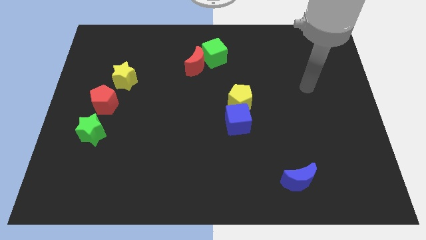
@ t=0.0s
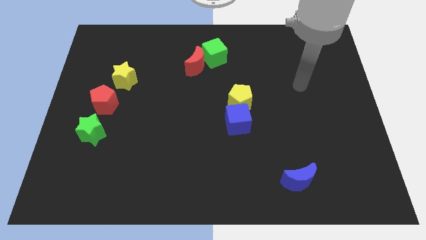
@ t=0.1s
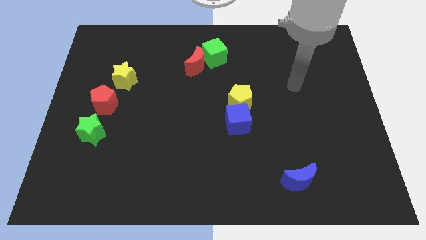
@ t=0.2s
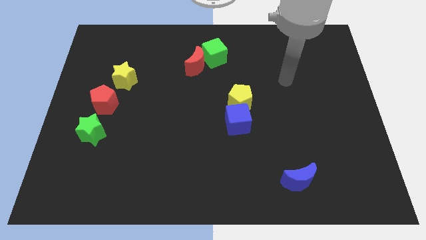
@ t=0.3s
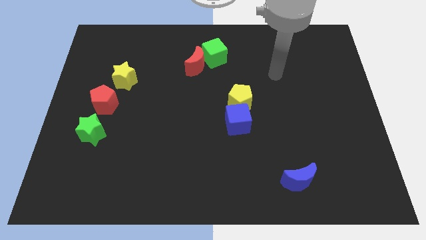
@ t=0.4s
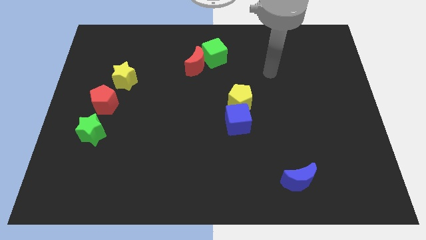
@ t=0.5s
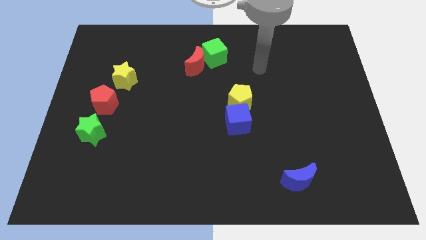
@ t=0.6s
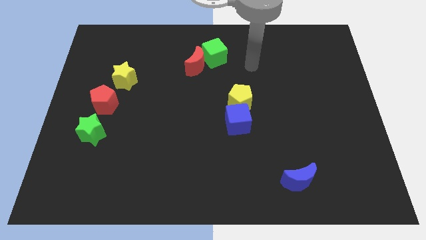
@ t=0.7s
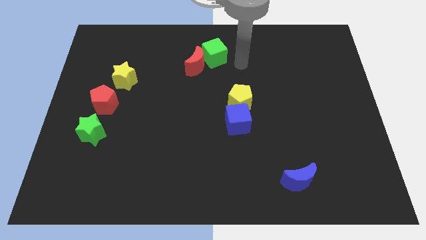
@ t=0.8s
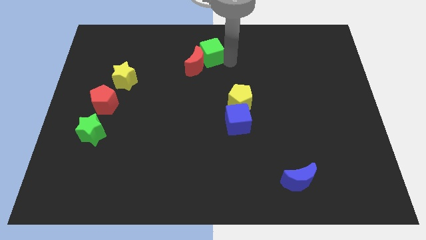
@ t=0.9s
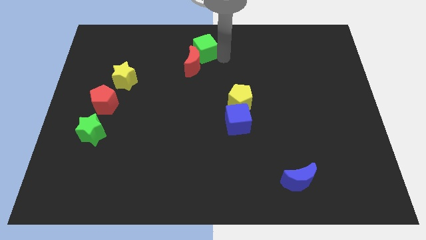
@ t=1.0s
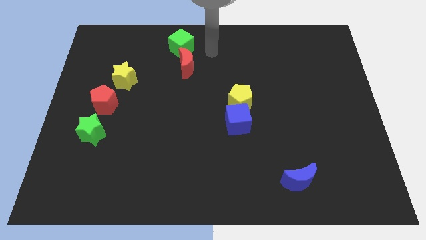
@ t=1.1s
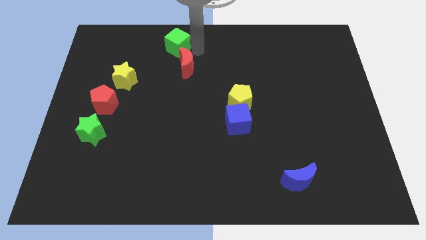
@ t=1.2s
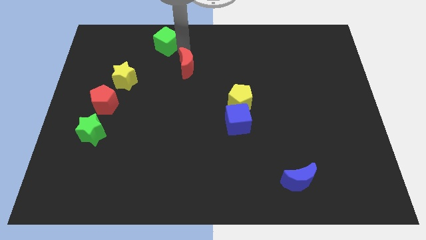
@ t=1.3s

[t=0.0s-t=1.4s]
move the red moon away from the green cube

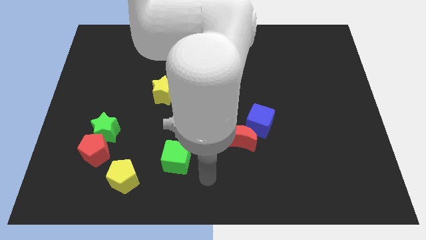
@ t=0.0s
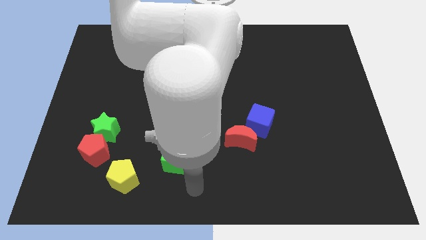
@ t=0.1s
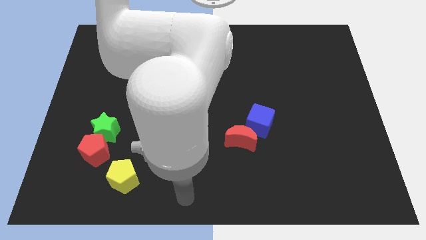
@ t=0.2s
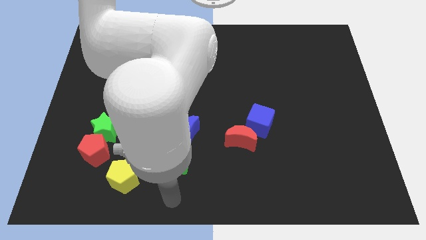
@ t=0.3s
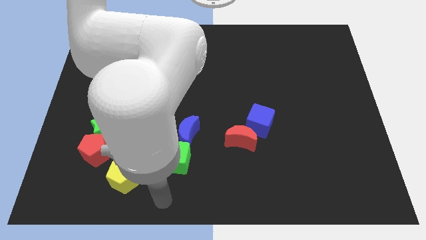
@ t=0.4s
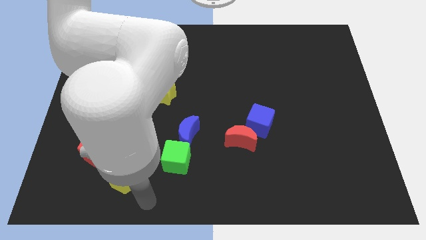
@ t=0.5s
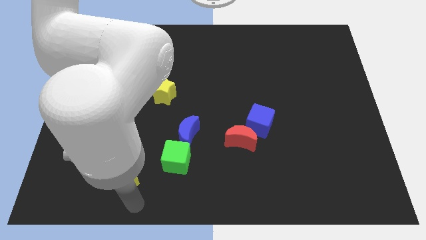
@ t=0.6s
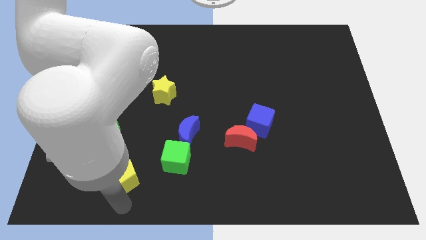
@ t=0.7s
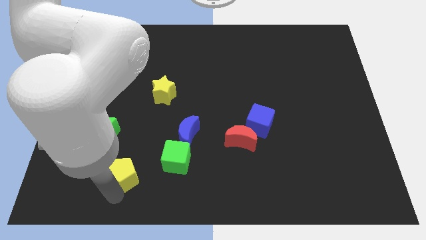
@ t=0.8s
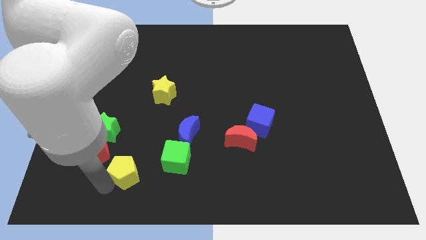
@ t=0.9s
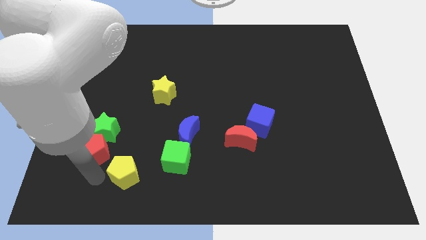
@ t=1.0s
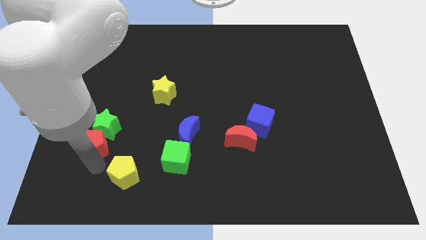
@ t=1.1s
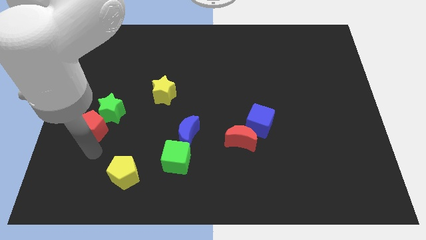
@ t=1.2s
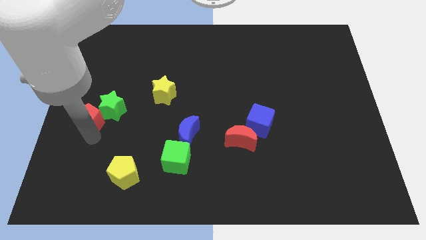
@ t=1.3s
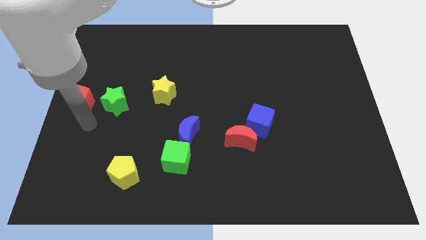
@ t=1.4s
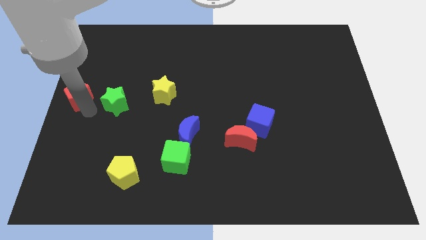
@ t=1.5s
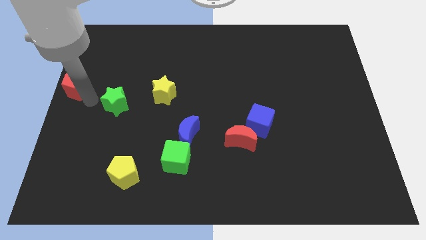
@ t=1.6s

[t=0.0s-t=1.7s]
separate the green star from the red pentagon

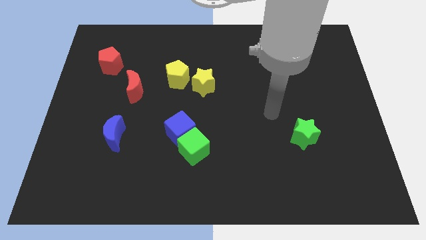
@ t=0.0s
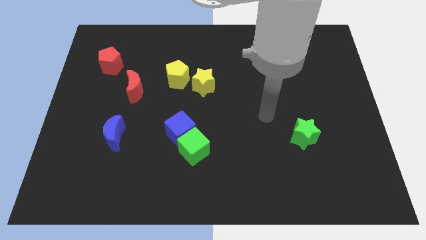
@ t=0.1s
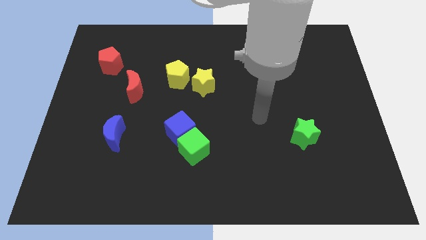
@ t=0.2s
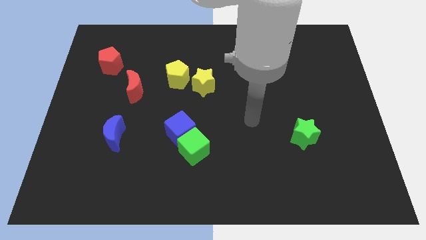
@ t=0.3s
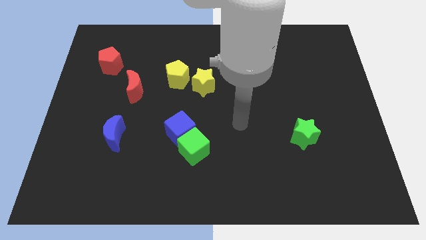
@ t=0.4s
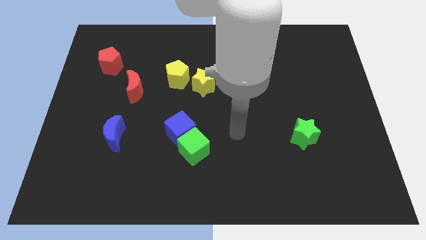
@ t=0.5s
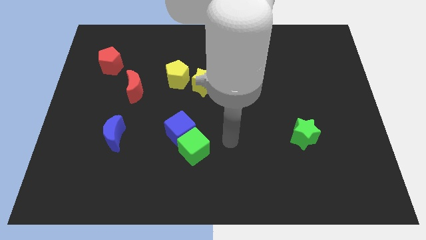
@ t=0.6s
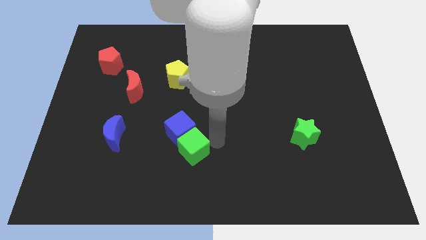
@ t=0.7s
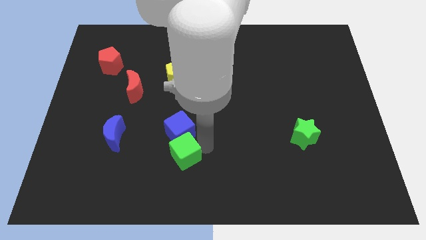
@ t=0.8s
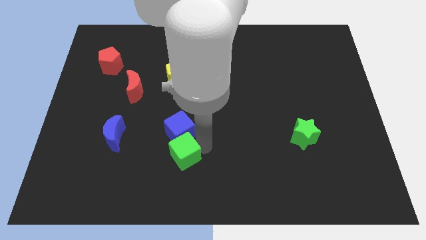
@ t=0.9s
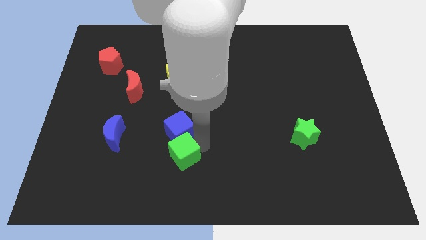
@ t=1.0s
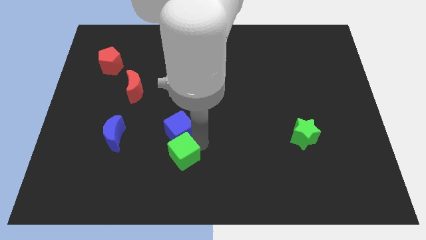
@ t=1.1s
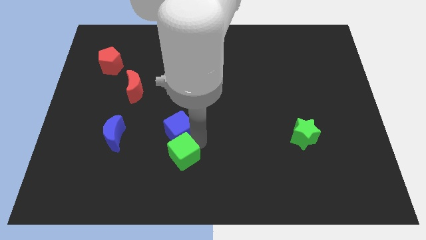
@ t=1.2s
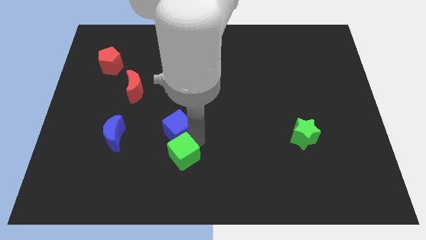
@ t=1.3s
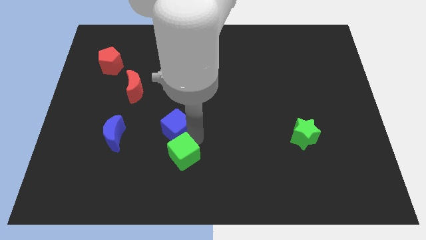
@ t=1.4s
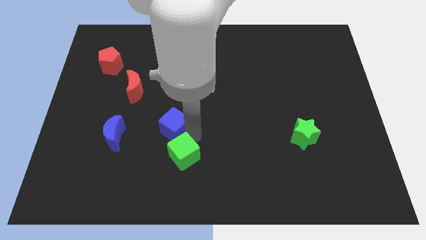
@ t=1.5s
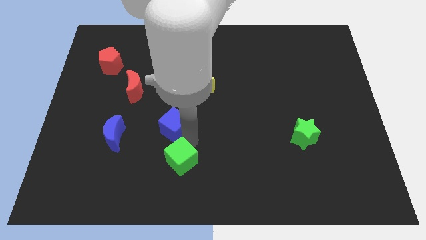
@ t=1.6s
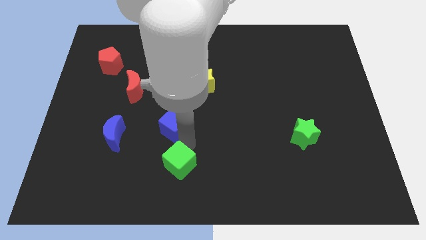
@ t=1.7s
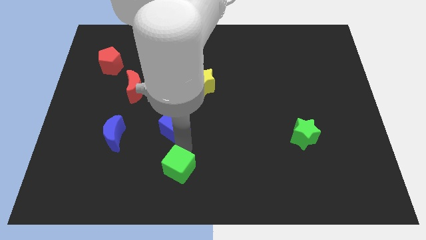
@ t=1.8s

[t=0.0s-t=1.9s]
pull the blue cube apart from the green cube

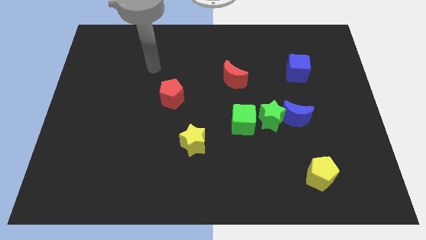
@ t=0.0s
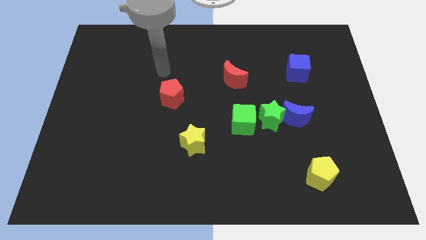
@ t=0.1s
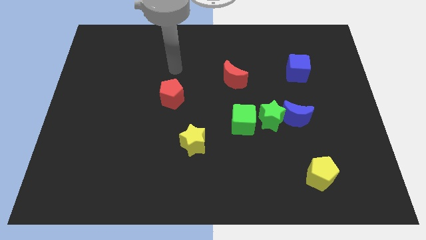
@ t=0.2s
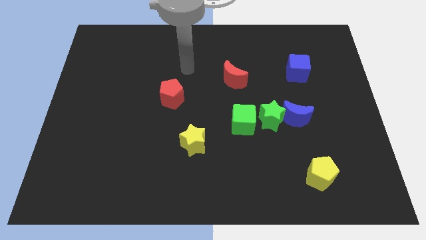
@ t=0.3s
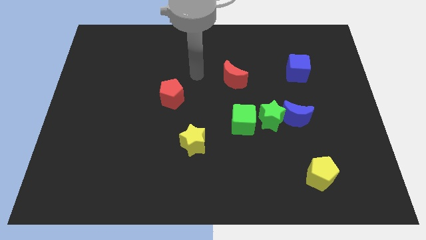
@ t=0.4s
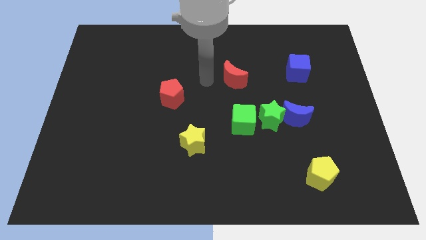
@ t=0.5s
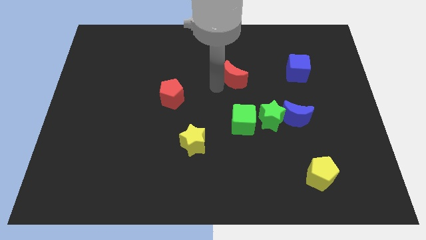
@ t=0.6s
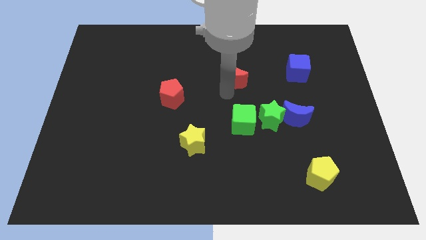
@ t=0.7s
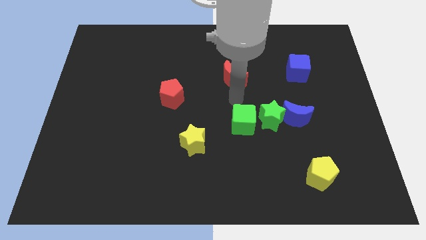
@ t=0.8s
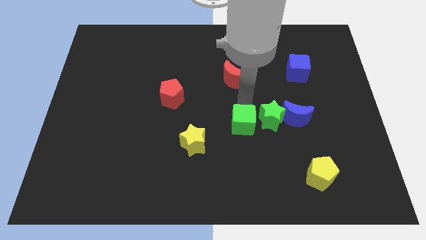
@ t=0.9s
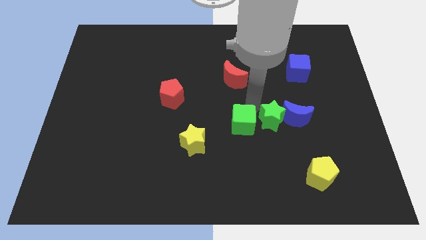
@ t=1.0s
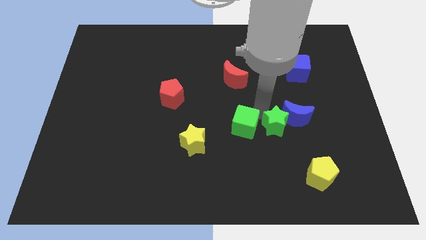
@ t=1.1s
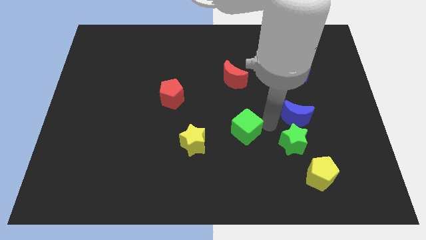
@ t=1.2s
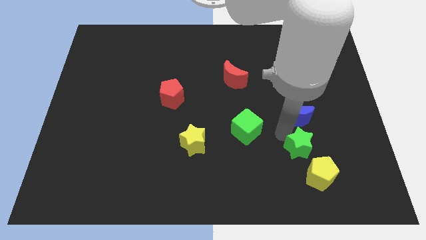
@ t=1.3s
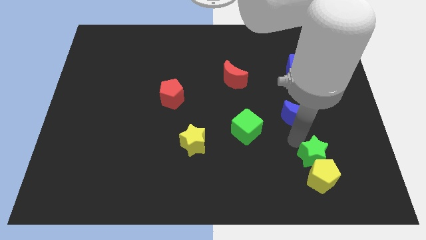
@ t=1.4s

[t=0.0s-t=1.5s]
move the blue moon away from the green star

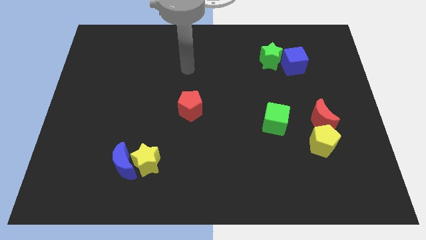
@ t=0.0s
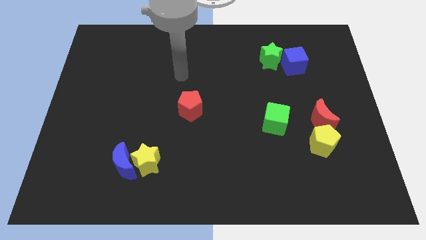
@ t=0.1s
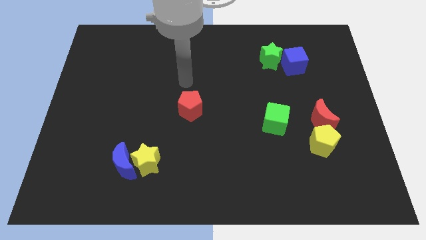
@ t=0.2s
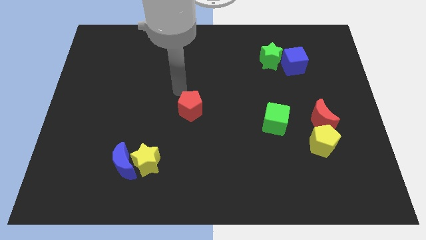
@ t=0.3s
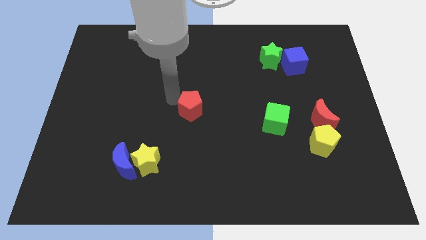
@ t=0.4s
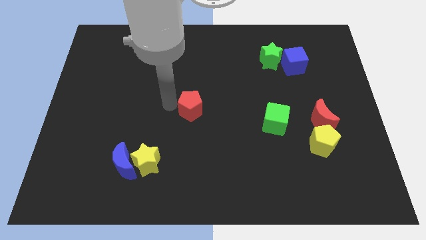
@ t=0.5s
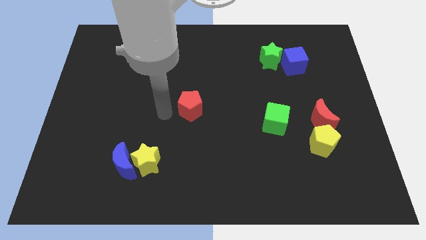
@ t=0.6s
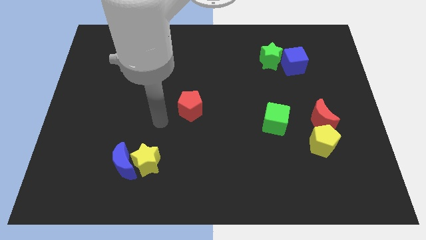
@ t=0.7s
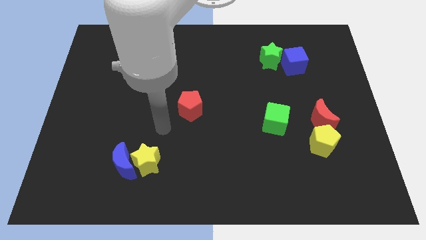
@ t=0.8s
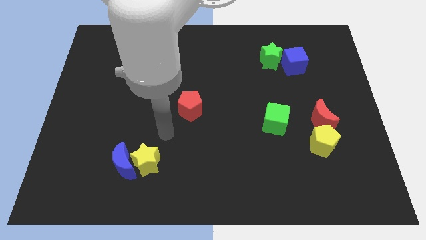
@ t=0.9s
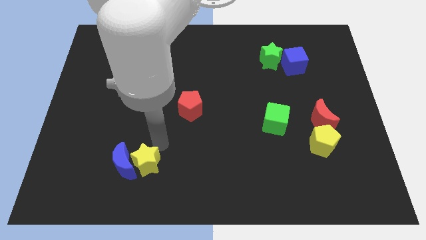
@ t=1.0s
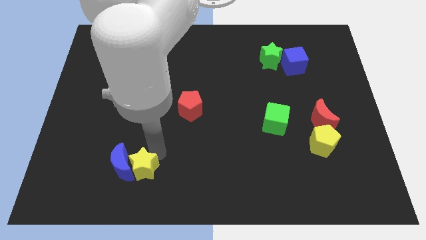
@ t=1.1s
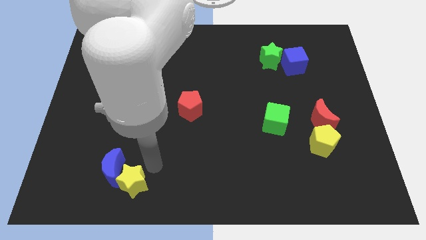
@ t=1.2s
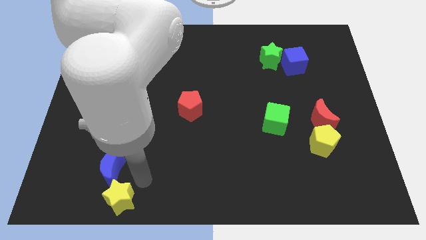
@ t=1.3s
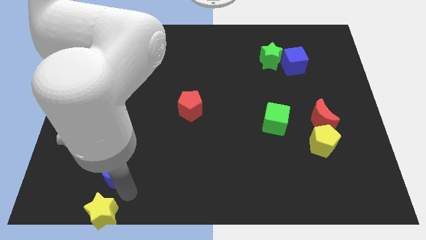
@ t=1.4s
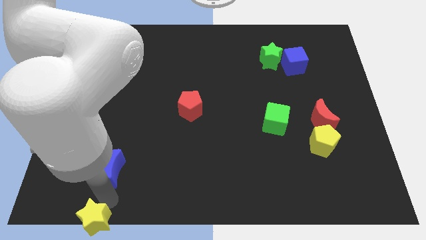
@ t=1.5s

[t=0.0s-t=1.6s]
separate the blue moon from the yellow star

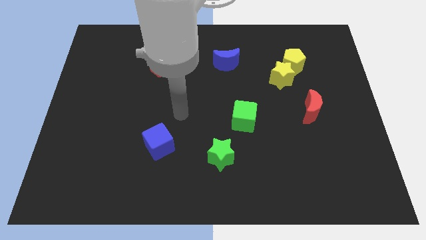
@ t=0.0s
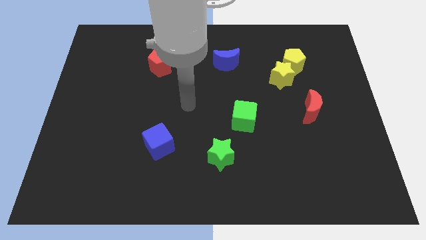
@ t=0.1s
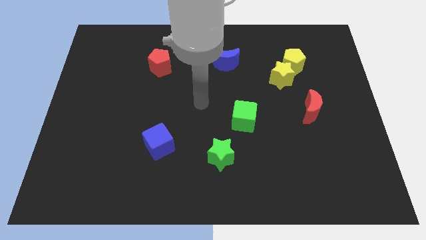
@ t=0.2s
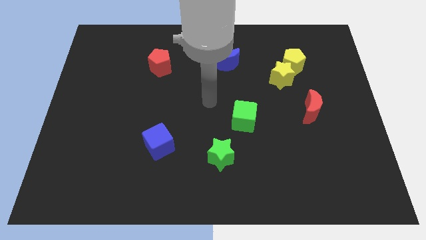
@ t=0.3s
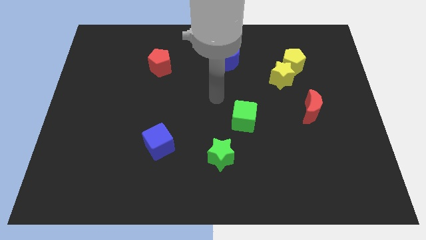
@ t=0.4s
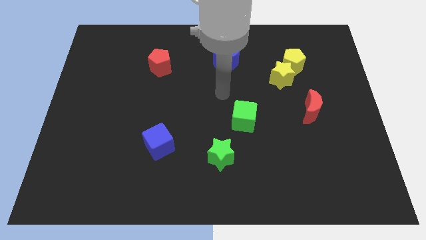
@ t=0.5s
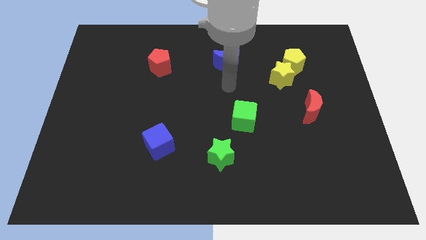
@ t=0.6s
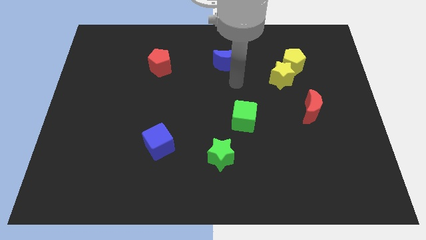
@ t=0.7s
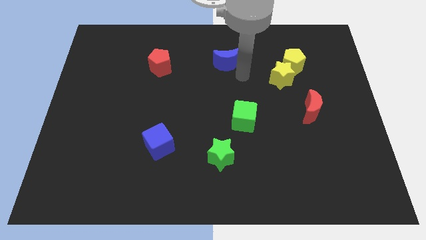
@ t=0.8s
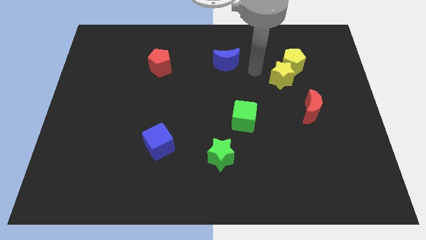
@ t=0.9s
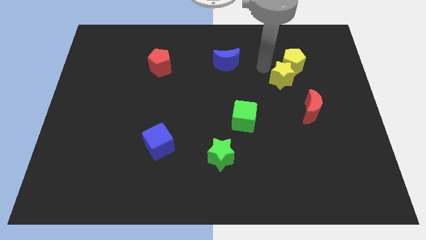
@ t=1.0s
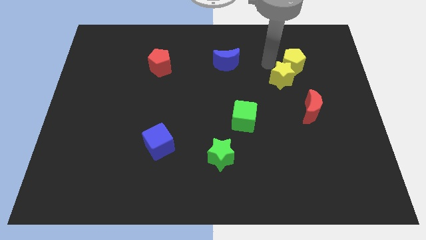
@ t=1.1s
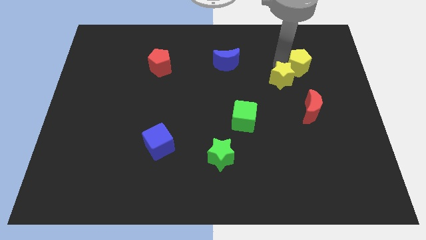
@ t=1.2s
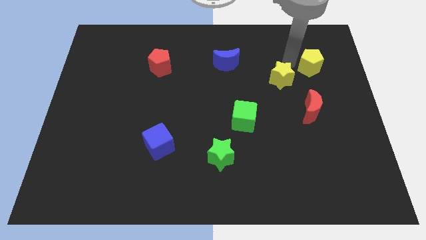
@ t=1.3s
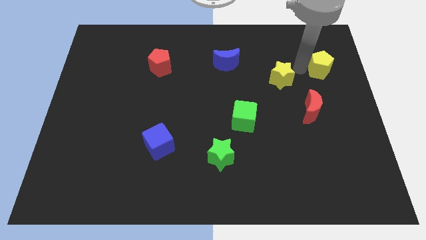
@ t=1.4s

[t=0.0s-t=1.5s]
separate the yellow star from the yellow pentagon
